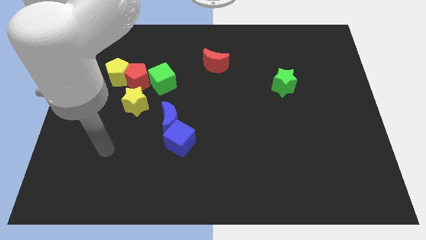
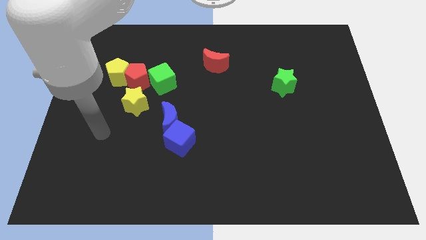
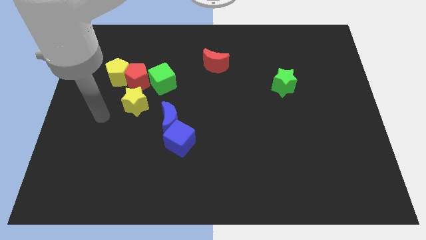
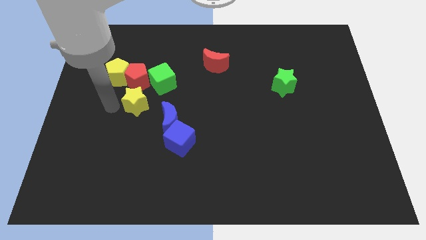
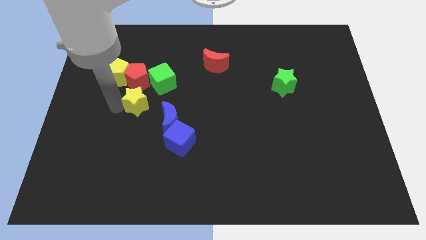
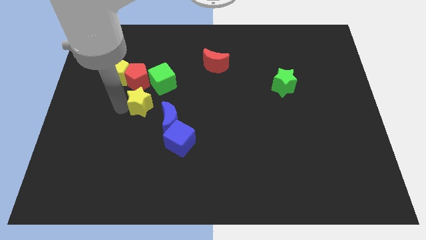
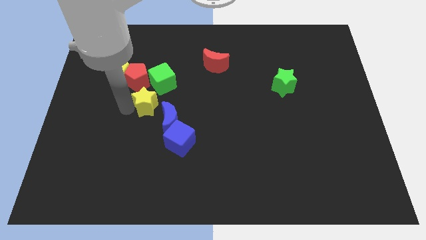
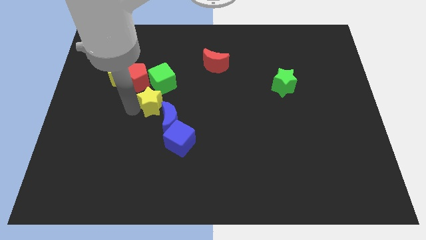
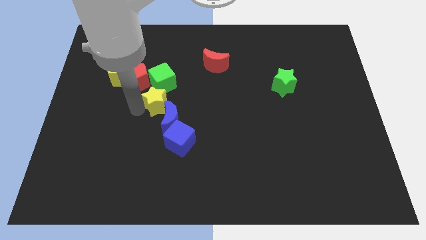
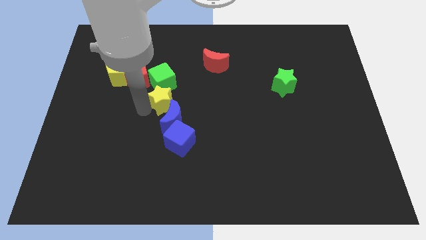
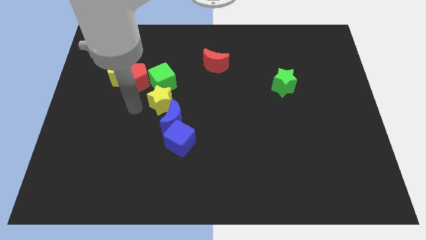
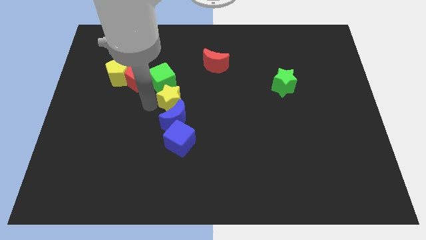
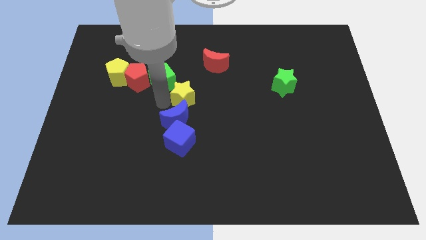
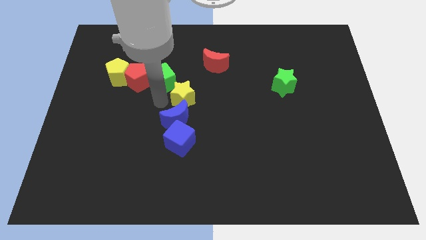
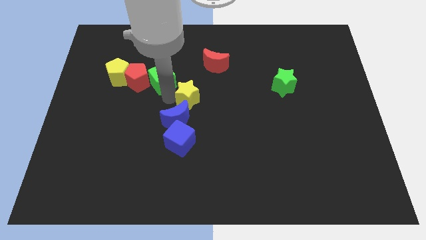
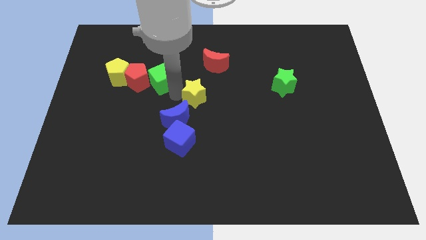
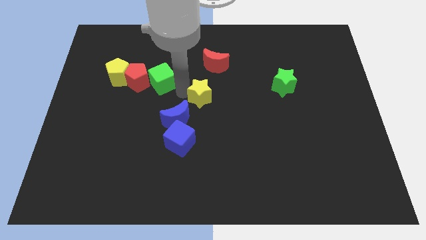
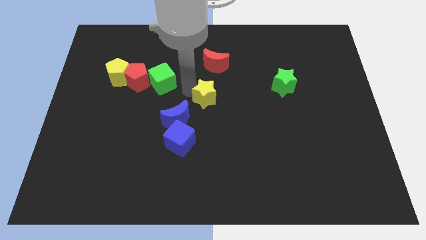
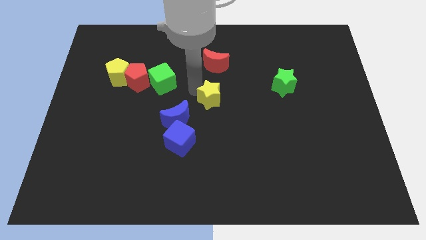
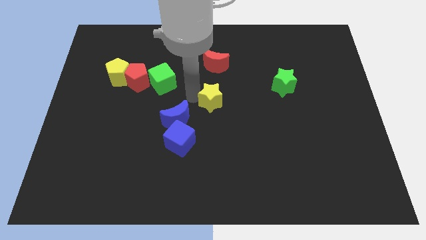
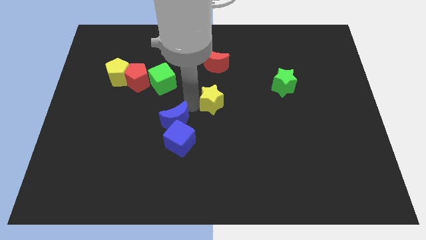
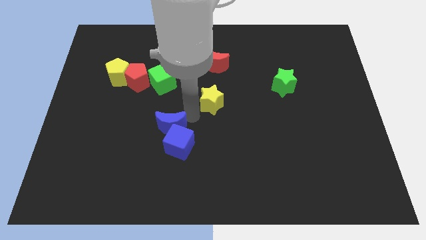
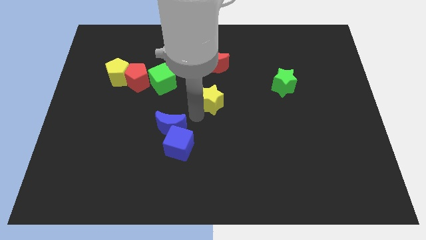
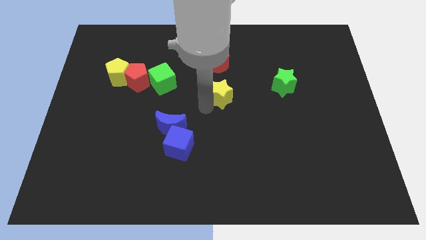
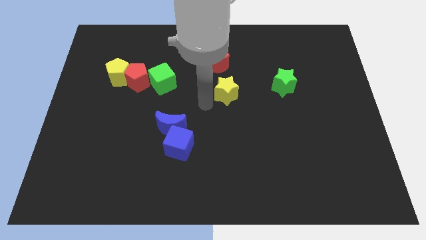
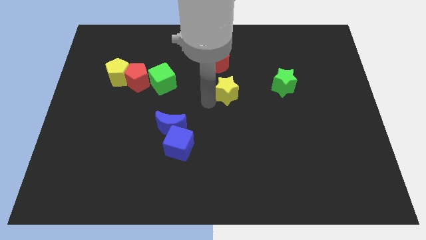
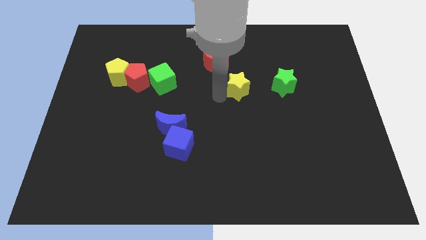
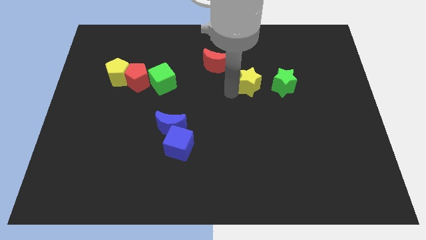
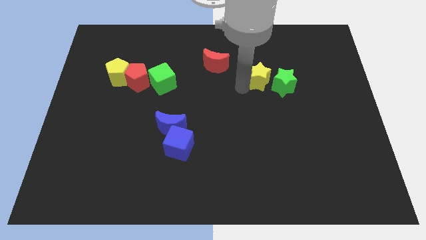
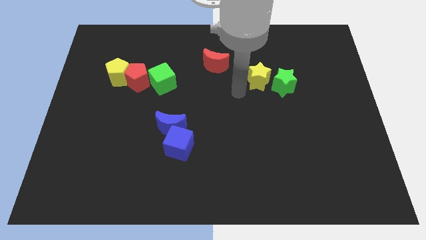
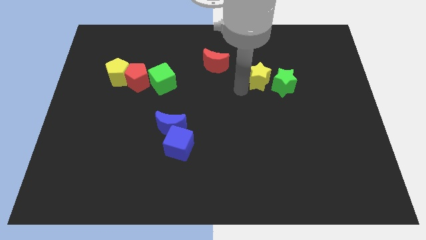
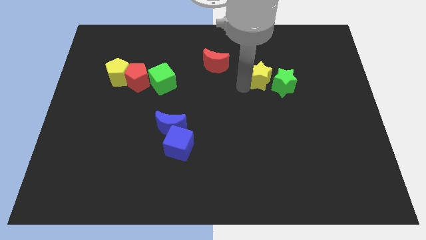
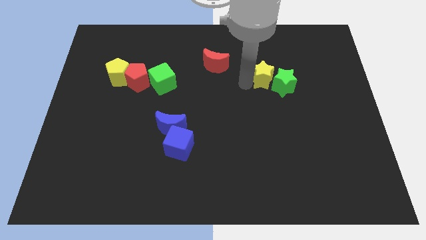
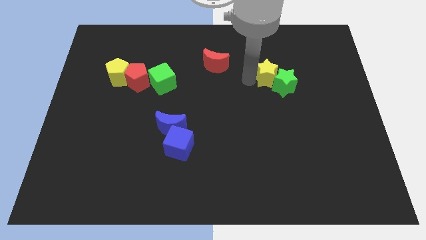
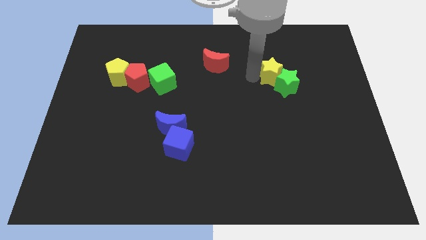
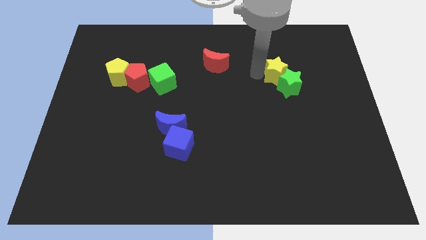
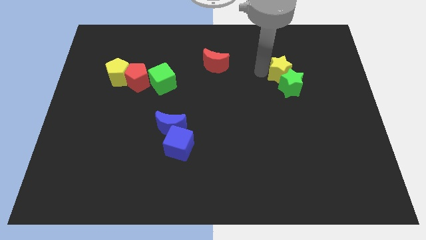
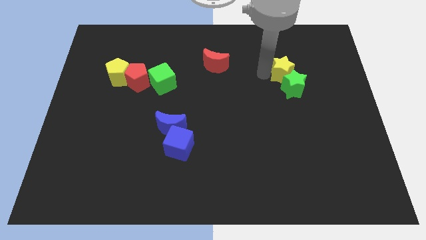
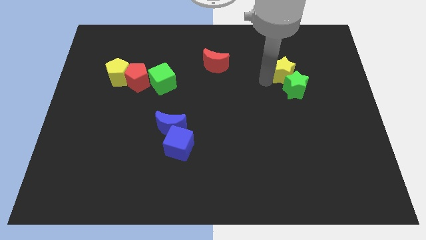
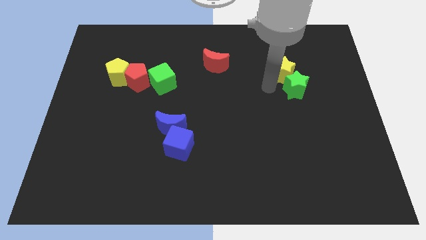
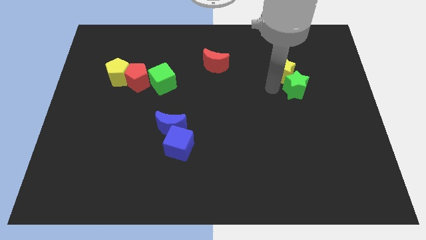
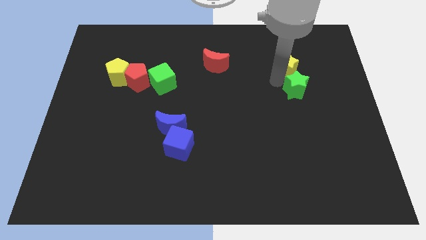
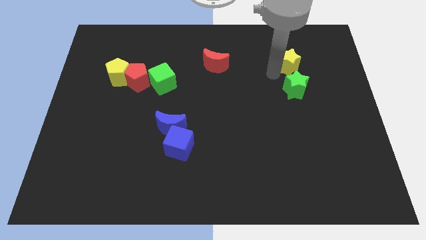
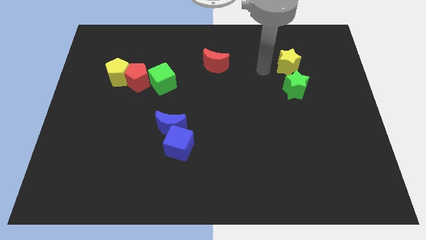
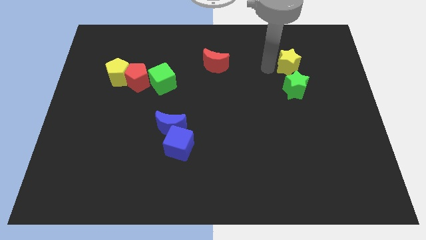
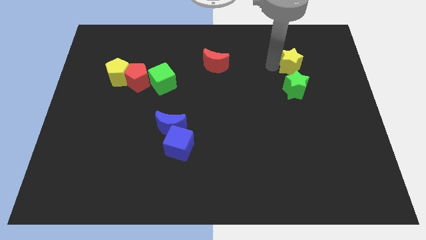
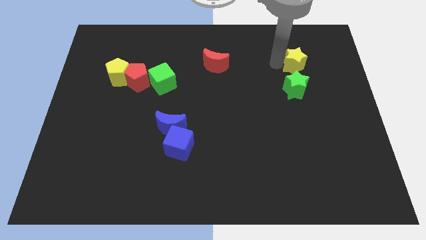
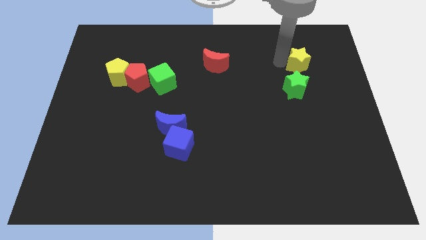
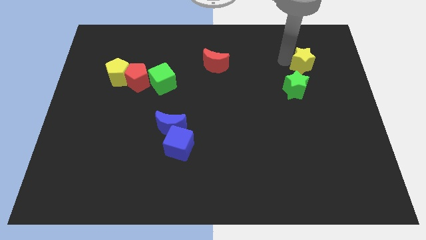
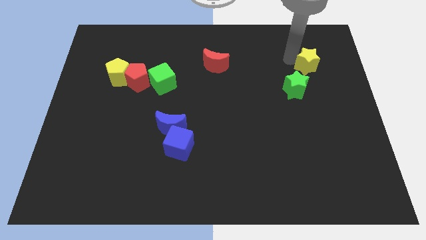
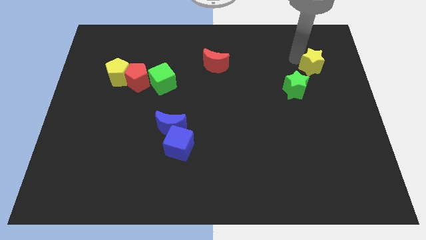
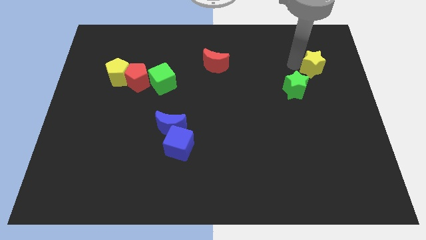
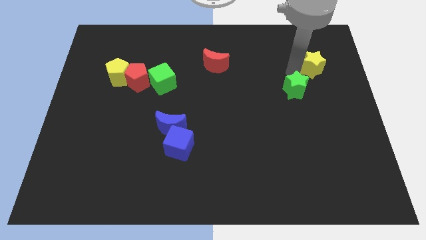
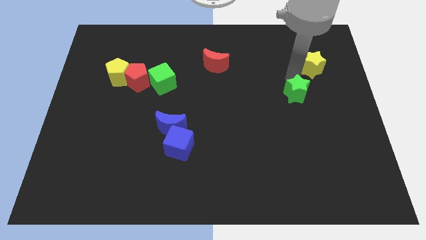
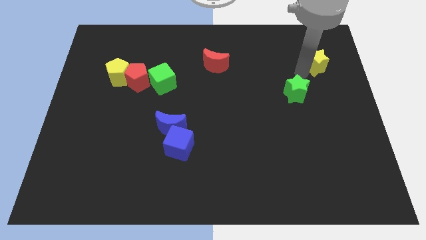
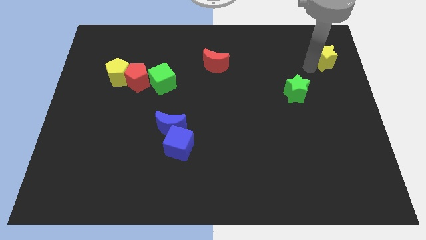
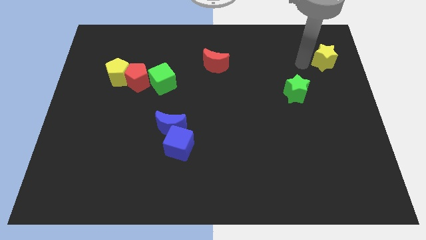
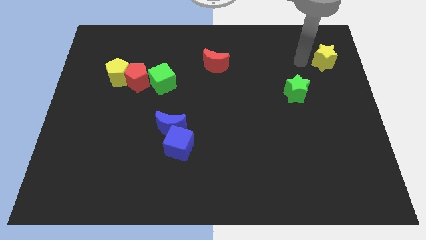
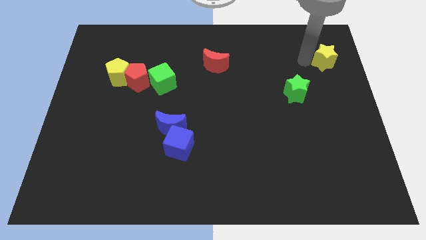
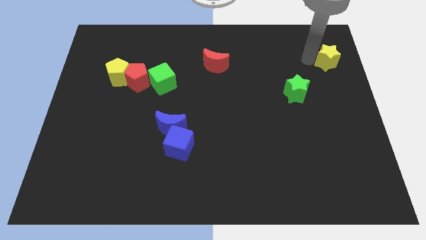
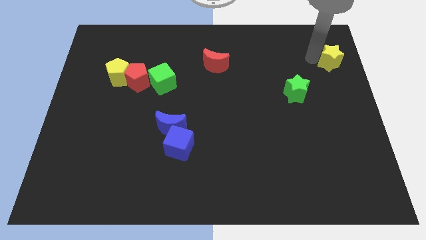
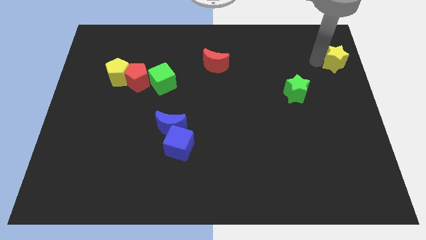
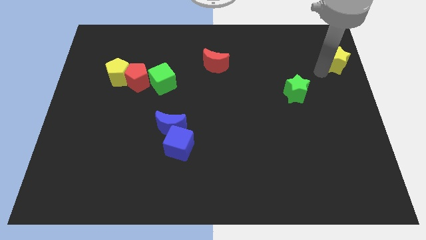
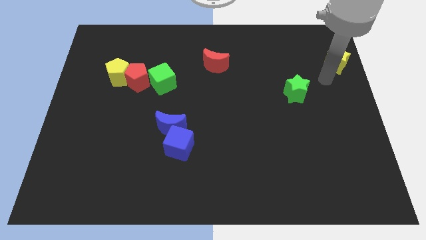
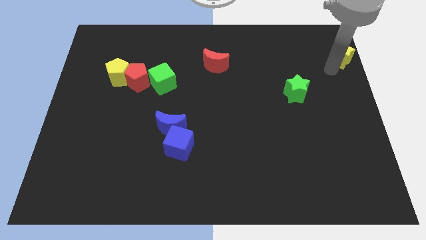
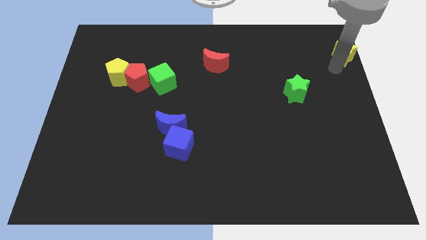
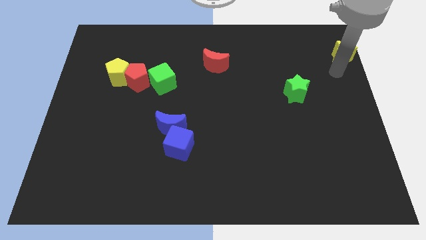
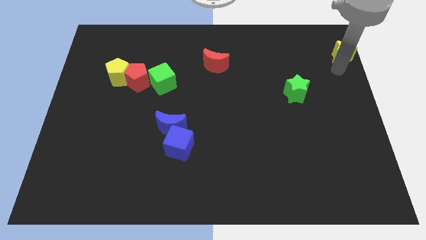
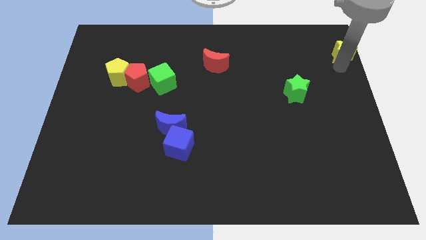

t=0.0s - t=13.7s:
move the yellow star to the upper right corner

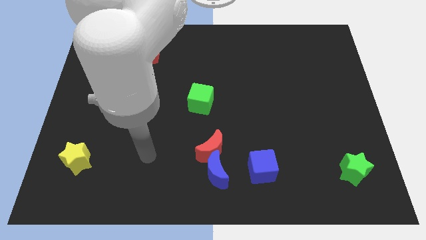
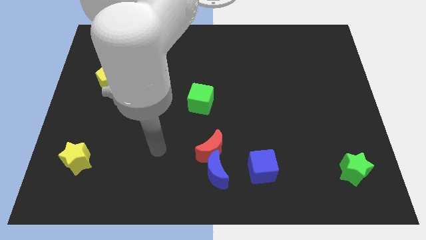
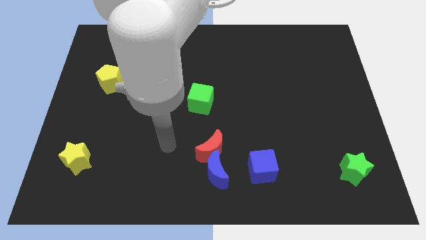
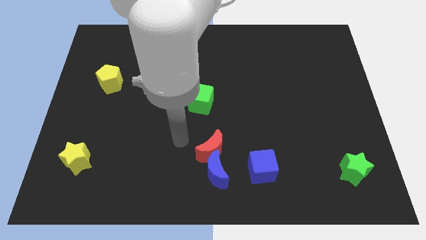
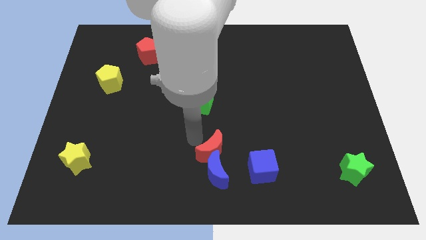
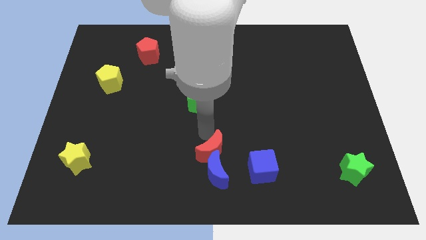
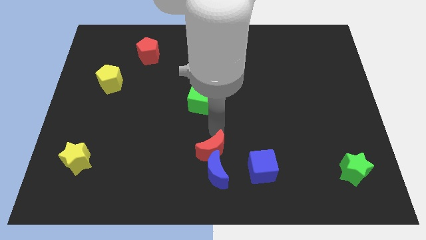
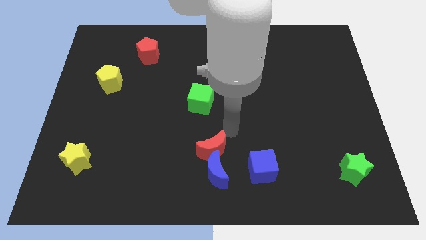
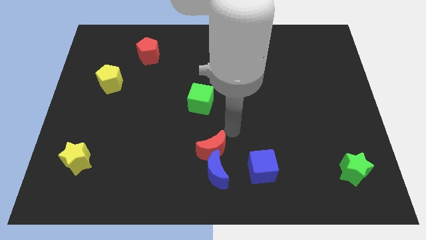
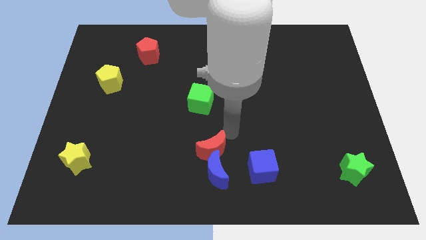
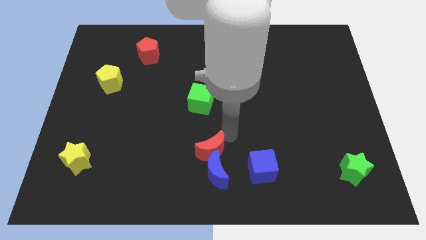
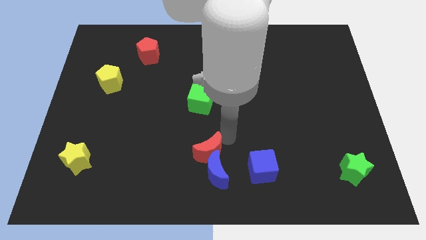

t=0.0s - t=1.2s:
push the red moon to the bottom
